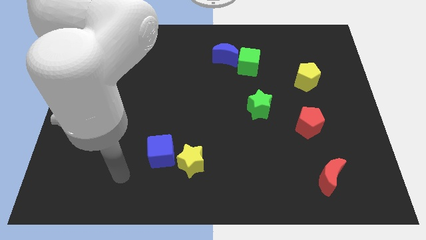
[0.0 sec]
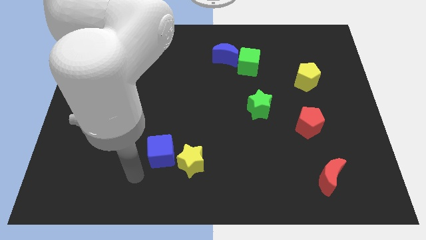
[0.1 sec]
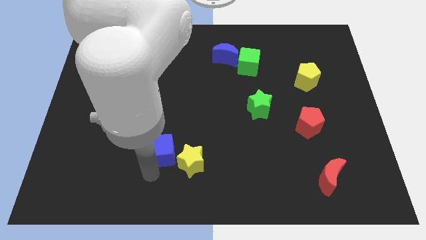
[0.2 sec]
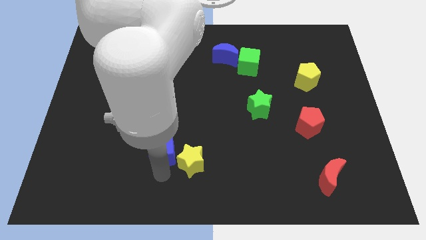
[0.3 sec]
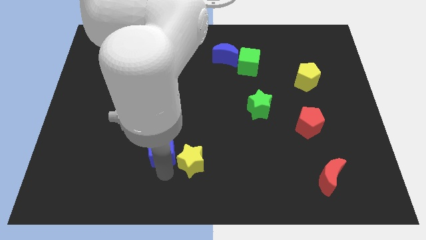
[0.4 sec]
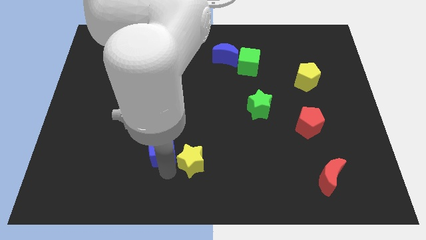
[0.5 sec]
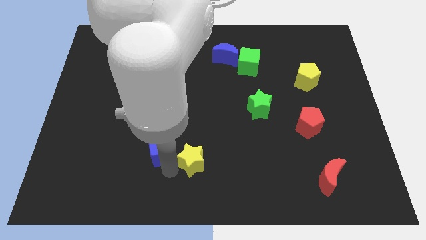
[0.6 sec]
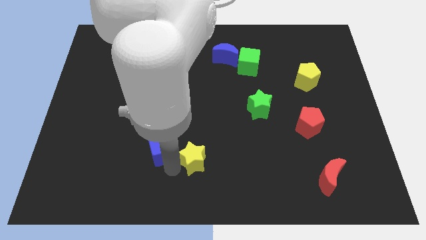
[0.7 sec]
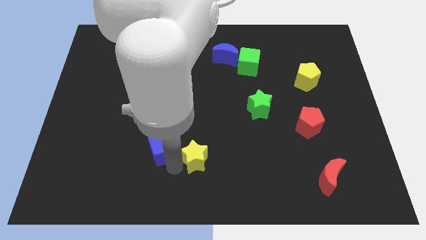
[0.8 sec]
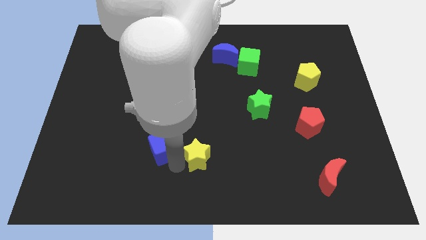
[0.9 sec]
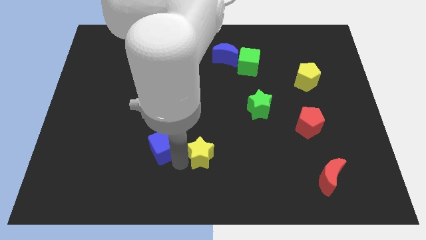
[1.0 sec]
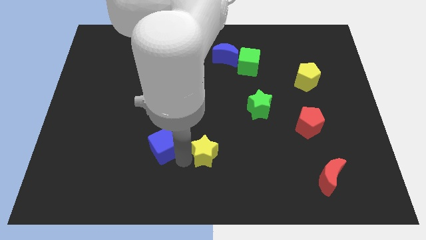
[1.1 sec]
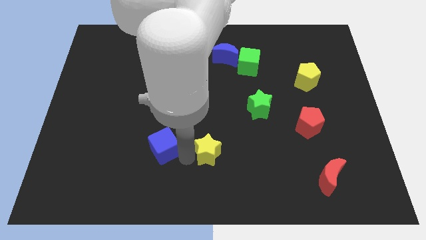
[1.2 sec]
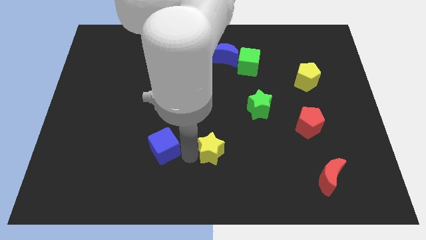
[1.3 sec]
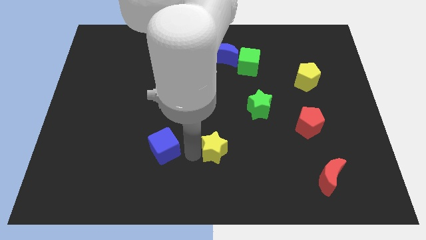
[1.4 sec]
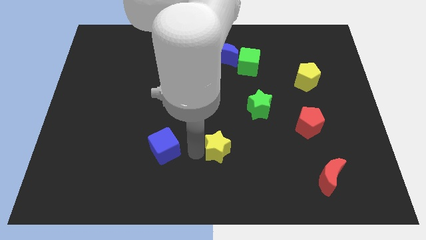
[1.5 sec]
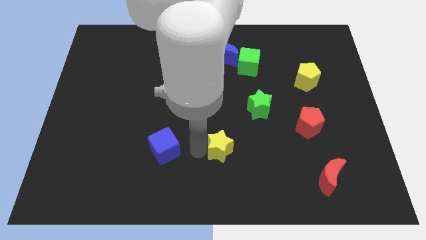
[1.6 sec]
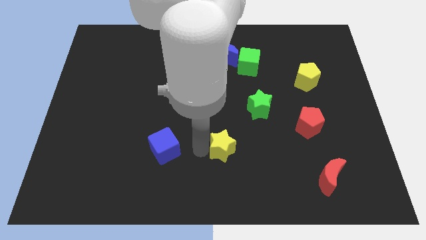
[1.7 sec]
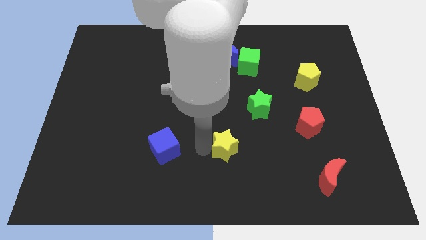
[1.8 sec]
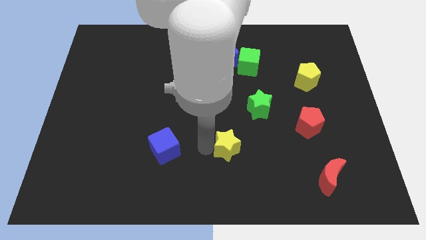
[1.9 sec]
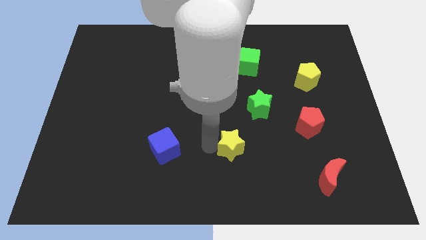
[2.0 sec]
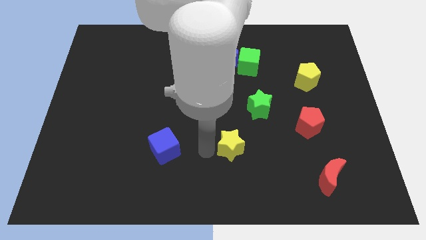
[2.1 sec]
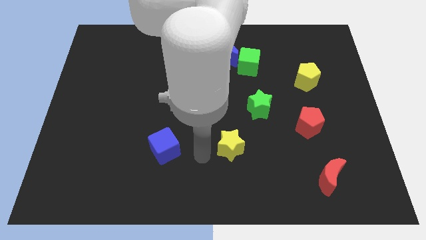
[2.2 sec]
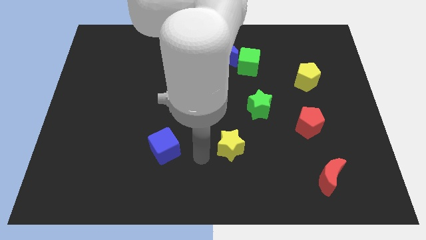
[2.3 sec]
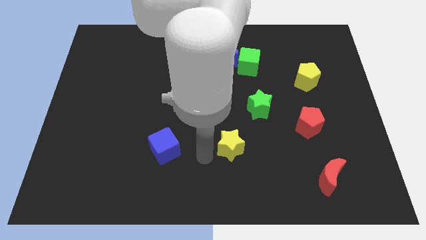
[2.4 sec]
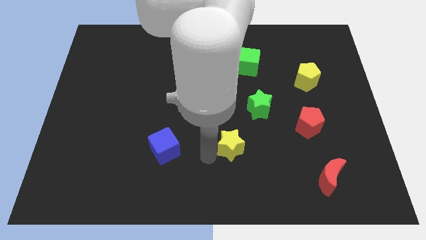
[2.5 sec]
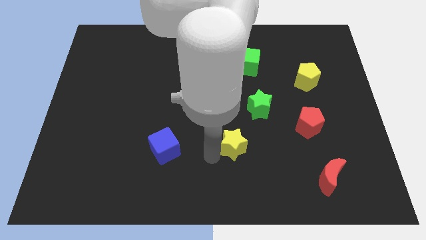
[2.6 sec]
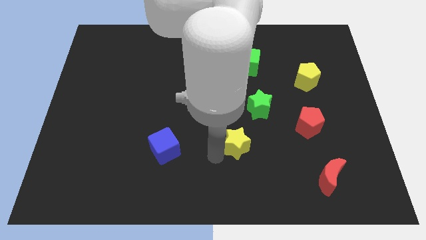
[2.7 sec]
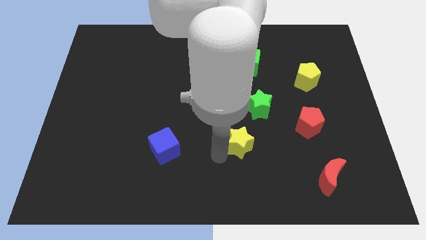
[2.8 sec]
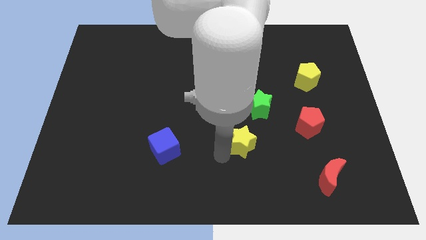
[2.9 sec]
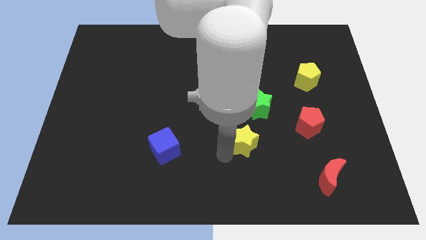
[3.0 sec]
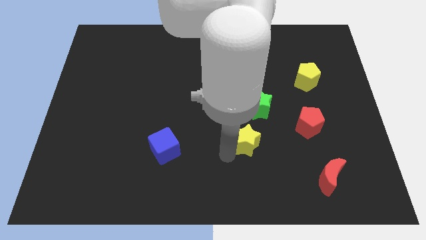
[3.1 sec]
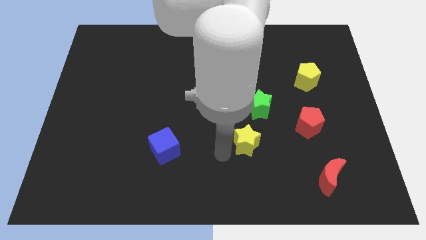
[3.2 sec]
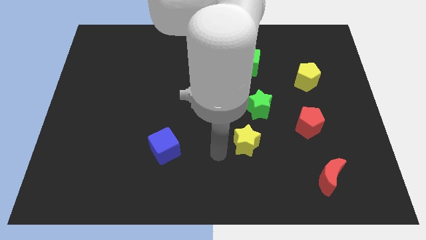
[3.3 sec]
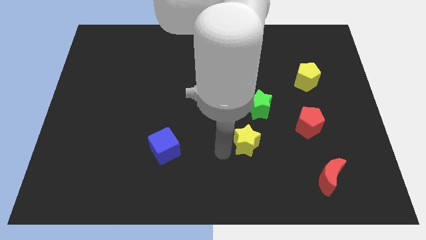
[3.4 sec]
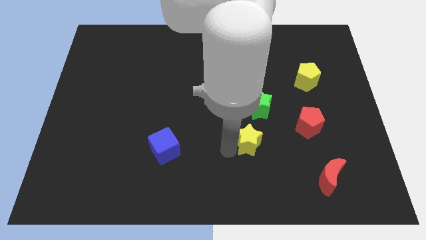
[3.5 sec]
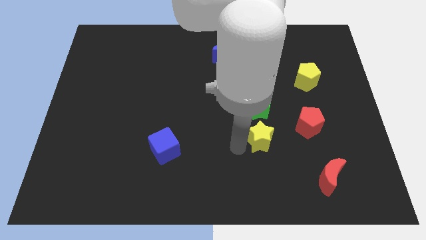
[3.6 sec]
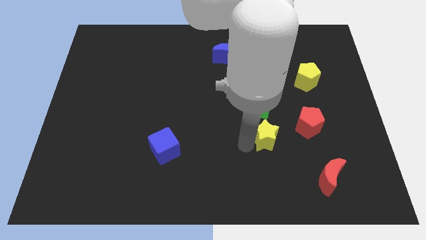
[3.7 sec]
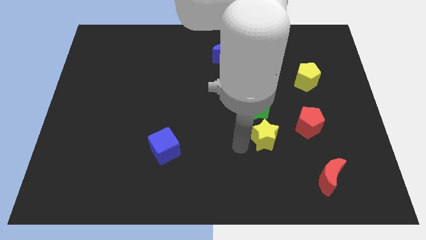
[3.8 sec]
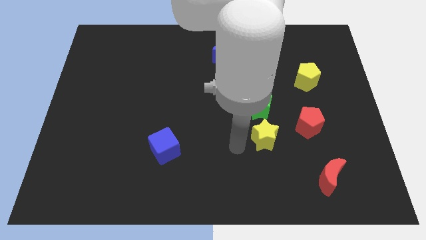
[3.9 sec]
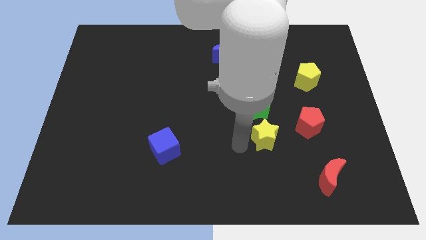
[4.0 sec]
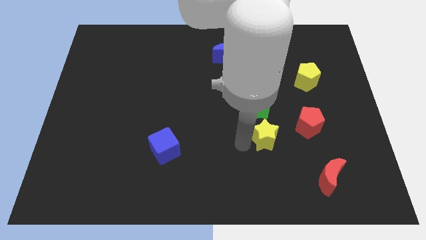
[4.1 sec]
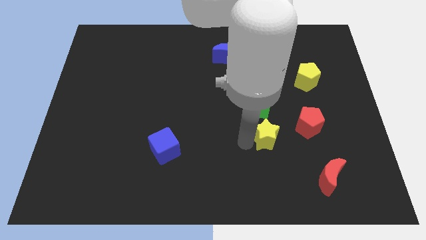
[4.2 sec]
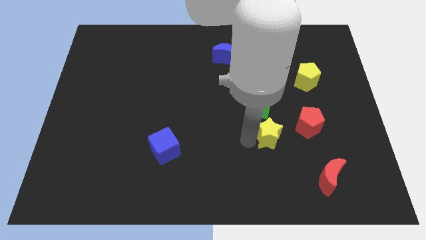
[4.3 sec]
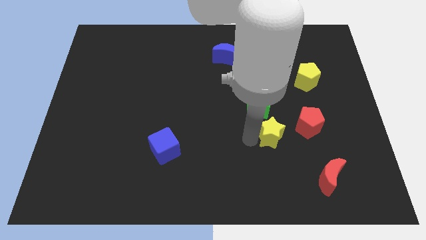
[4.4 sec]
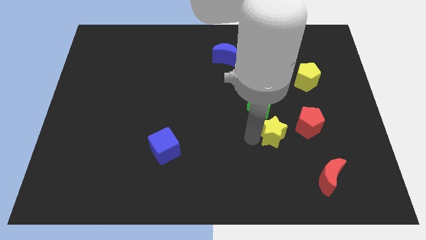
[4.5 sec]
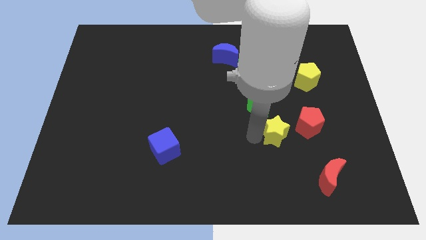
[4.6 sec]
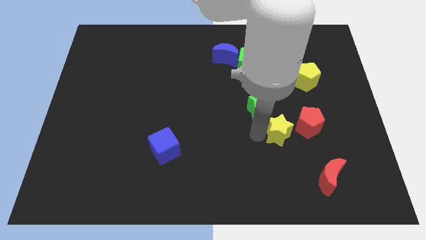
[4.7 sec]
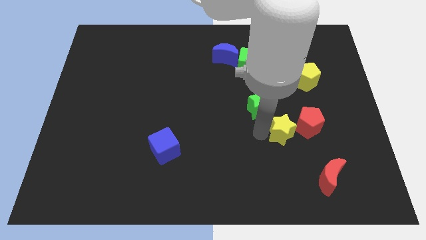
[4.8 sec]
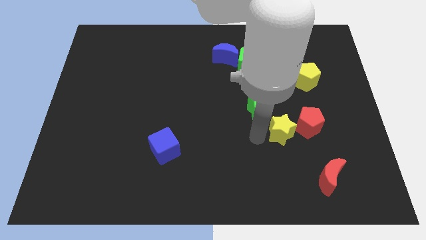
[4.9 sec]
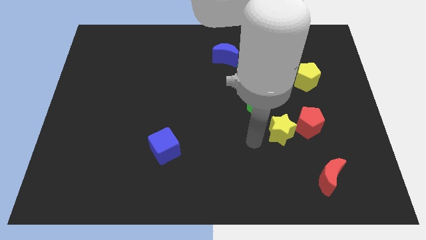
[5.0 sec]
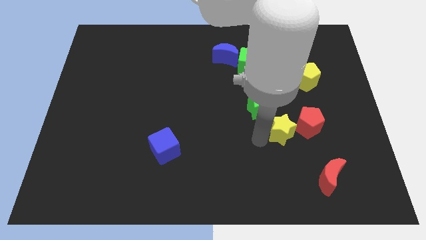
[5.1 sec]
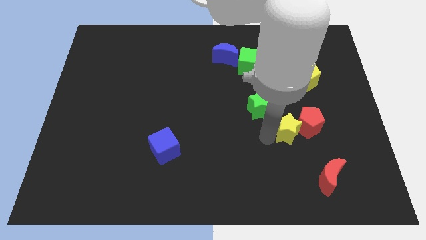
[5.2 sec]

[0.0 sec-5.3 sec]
push the yellow star close to the red pentagon

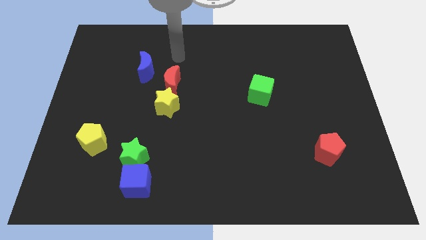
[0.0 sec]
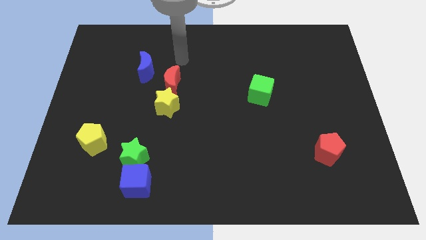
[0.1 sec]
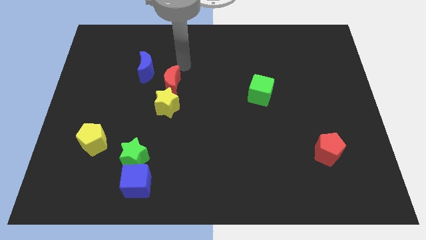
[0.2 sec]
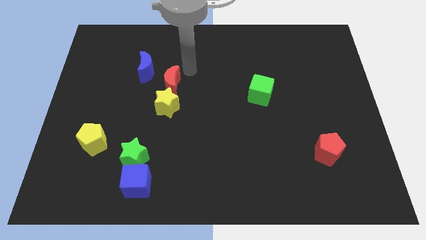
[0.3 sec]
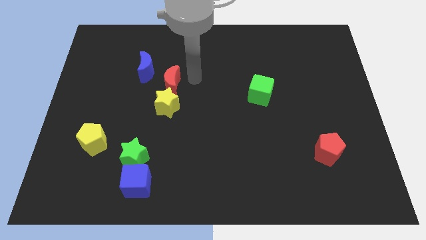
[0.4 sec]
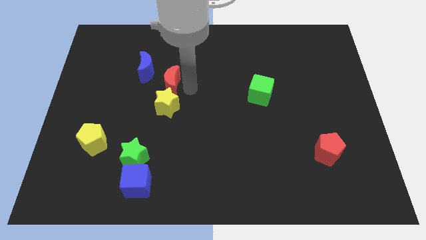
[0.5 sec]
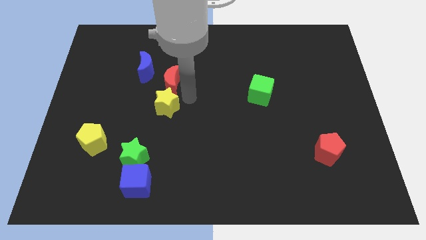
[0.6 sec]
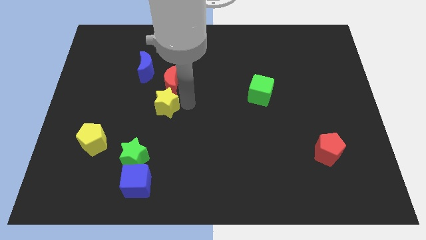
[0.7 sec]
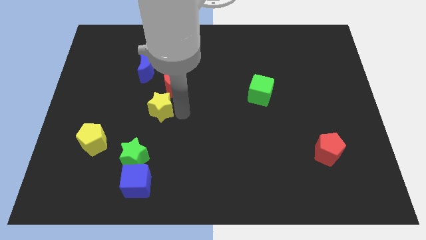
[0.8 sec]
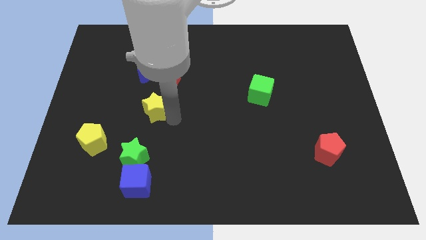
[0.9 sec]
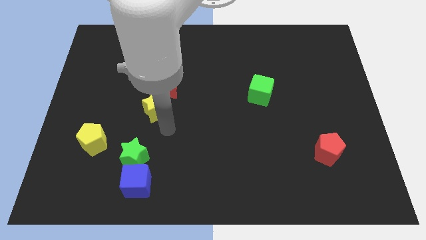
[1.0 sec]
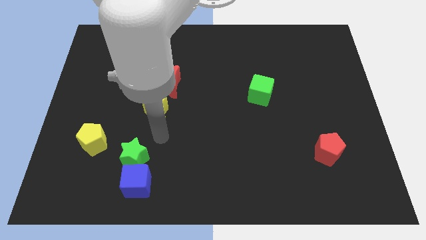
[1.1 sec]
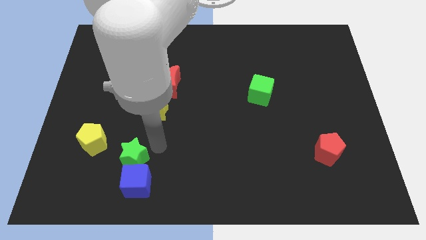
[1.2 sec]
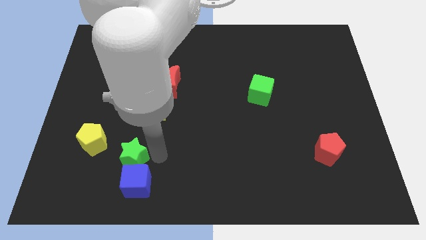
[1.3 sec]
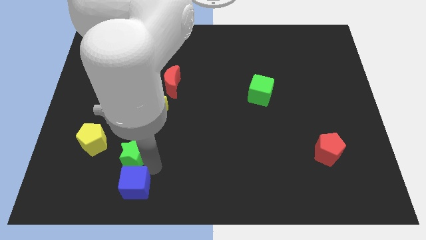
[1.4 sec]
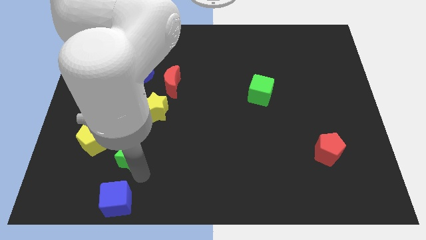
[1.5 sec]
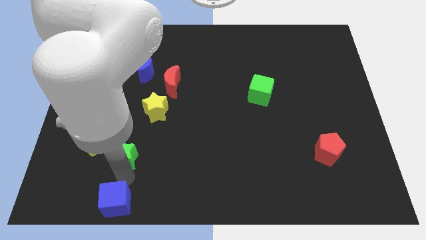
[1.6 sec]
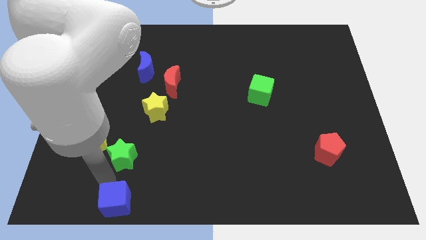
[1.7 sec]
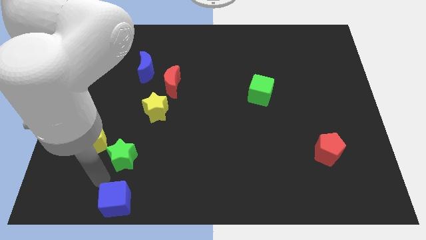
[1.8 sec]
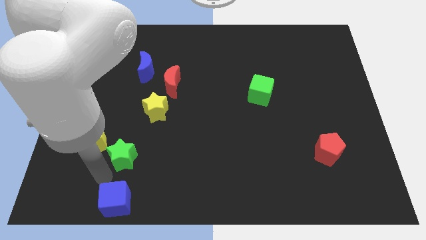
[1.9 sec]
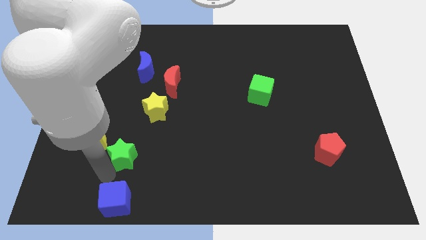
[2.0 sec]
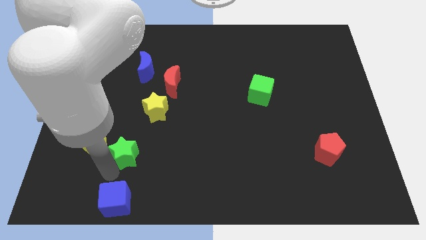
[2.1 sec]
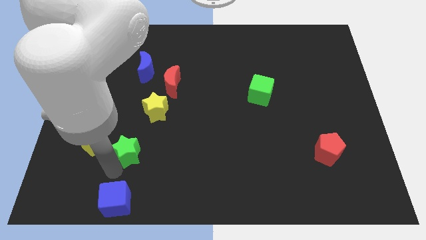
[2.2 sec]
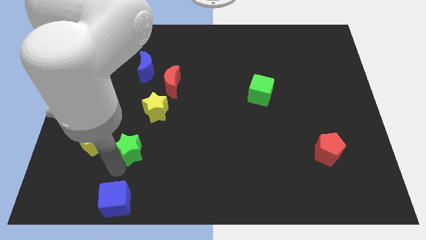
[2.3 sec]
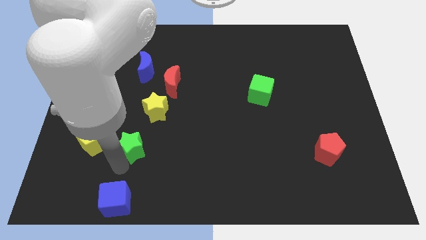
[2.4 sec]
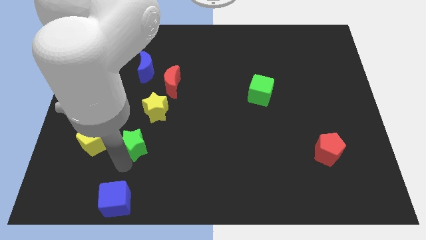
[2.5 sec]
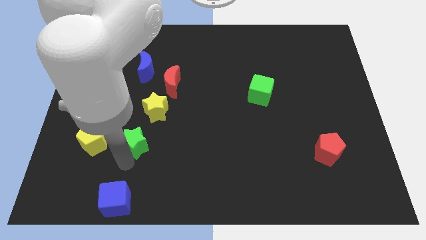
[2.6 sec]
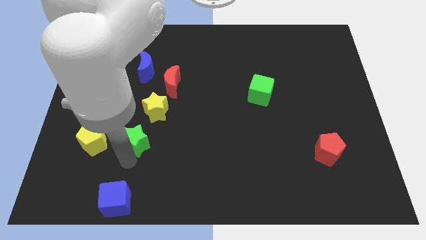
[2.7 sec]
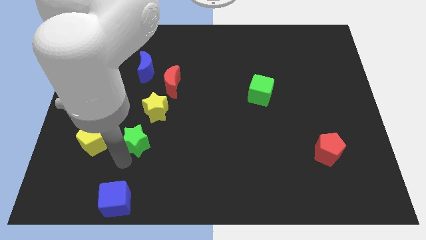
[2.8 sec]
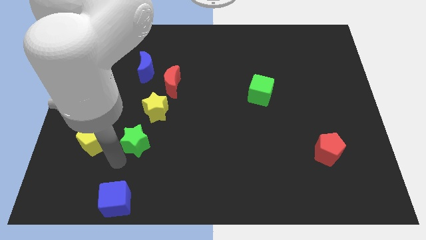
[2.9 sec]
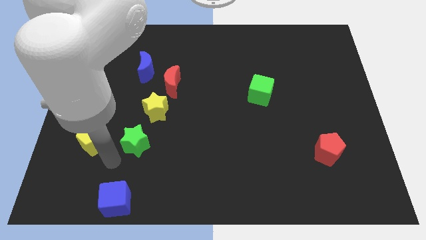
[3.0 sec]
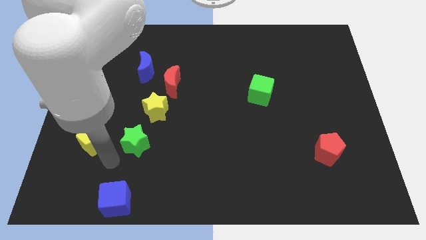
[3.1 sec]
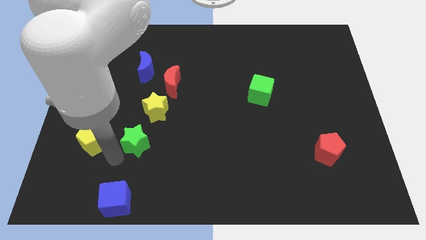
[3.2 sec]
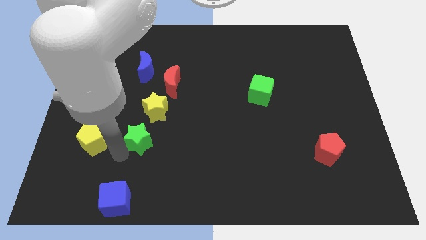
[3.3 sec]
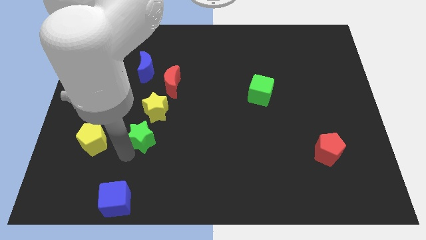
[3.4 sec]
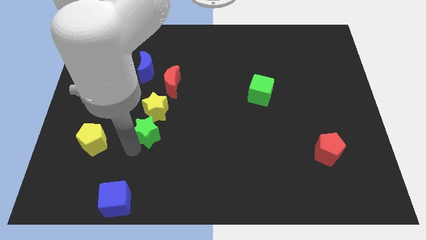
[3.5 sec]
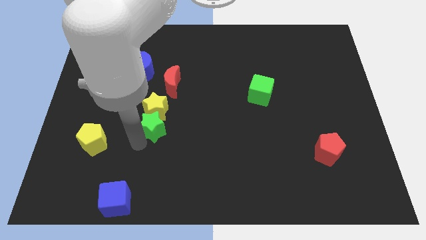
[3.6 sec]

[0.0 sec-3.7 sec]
put the green star next to the yellow star
